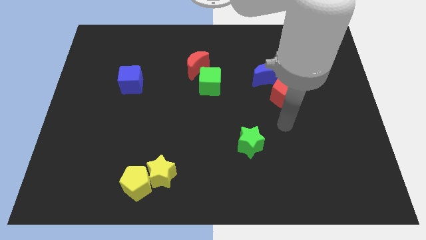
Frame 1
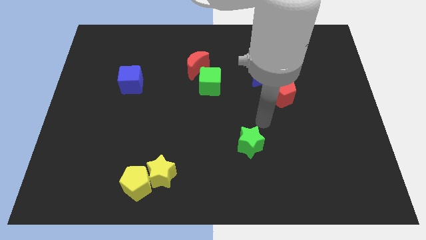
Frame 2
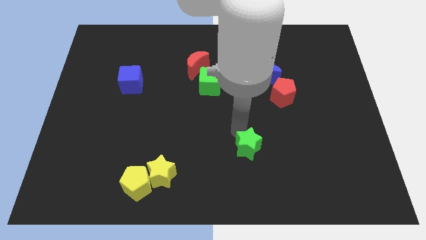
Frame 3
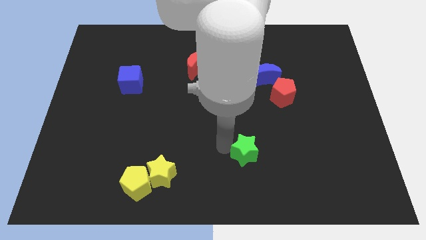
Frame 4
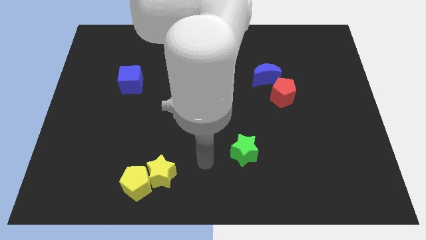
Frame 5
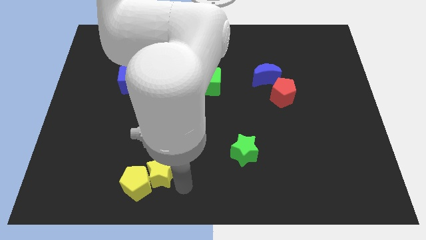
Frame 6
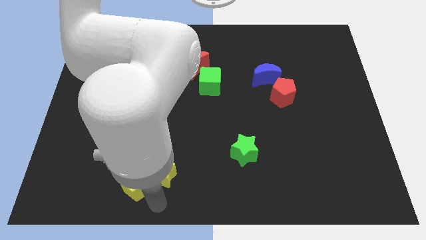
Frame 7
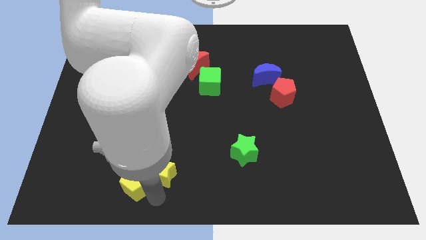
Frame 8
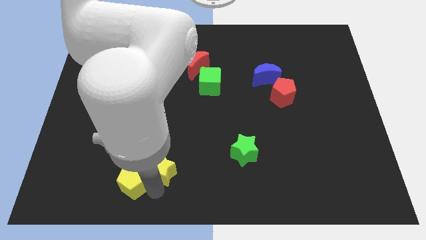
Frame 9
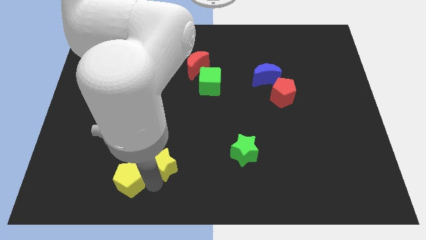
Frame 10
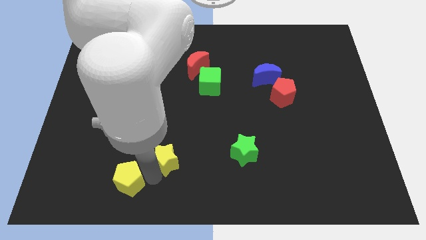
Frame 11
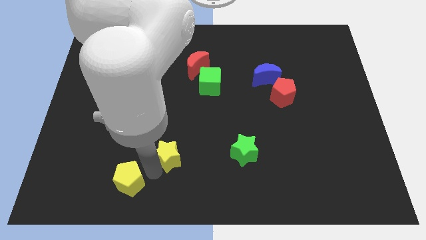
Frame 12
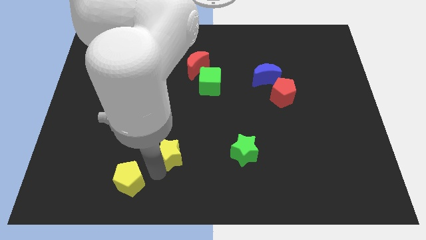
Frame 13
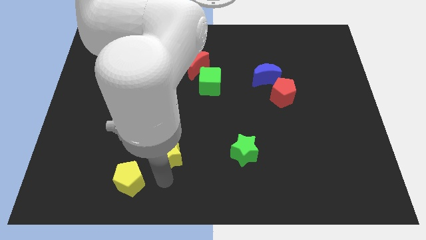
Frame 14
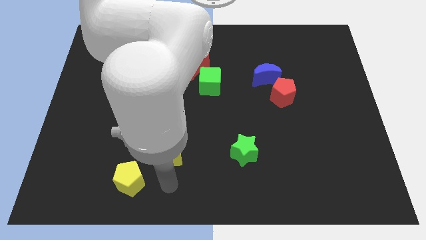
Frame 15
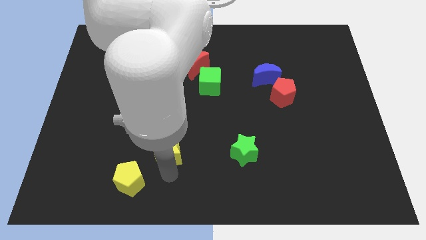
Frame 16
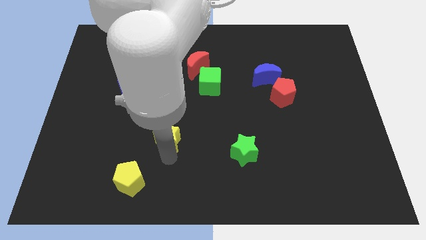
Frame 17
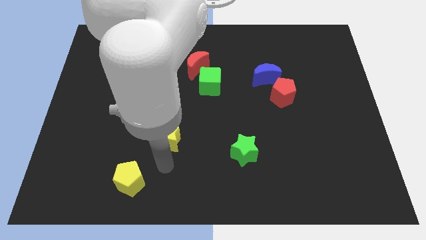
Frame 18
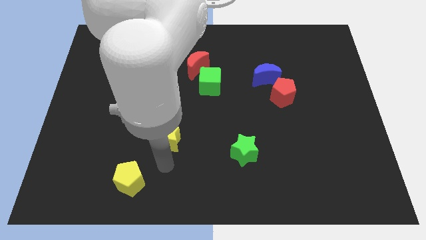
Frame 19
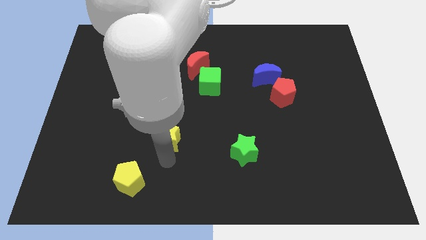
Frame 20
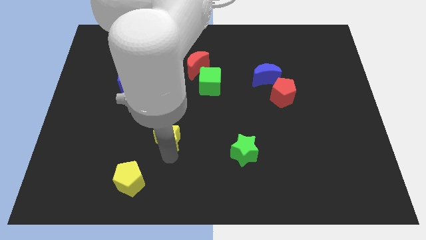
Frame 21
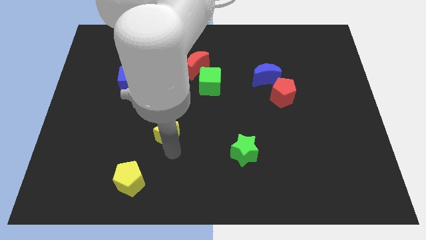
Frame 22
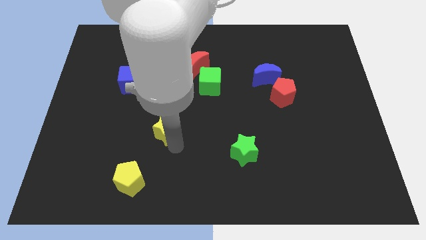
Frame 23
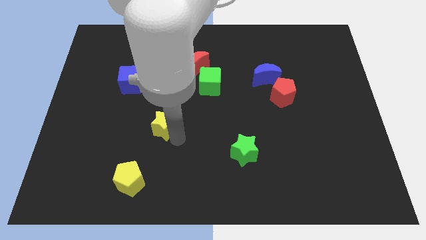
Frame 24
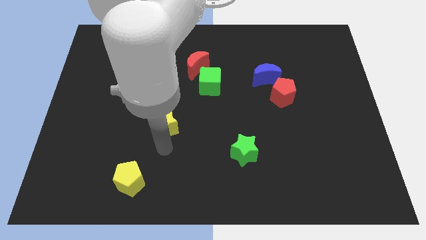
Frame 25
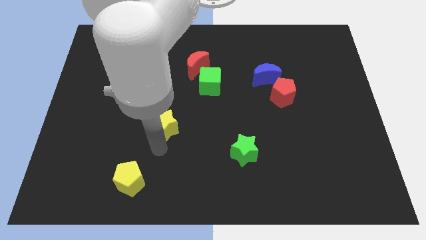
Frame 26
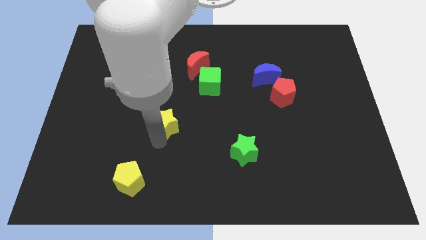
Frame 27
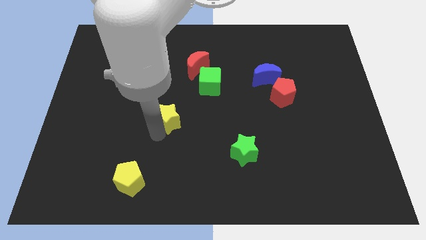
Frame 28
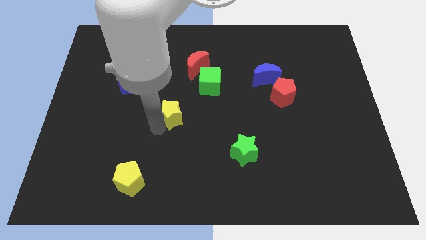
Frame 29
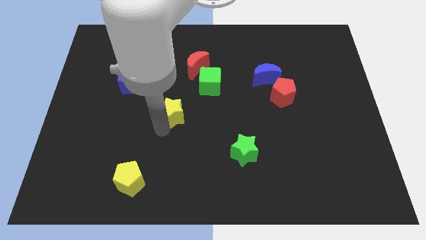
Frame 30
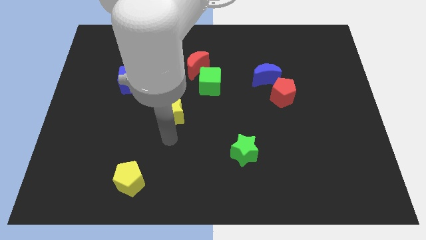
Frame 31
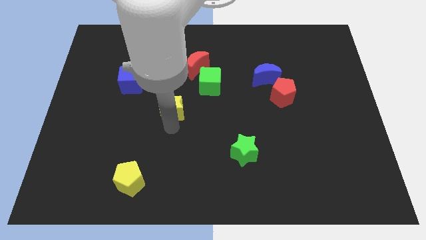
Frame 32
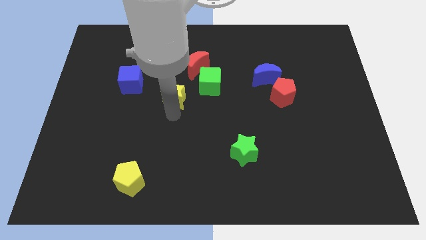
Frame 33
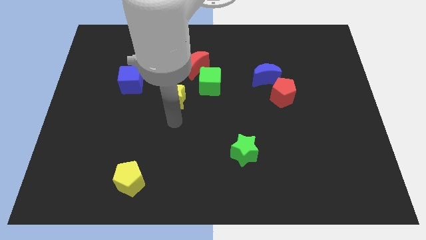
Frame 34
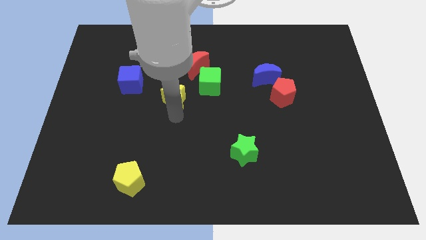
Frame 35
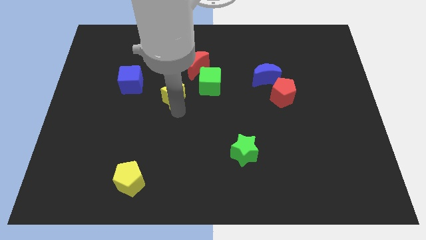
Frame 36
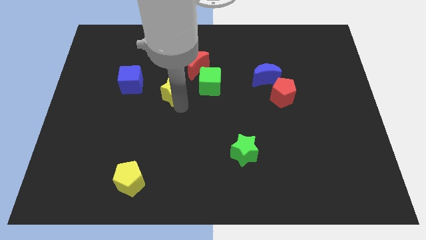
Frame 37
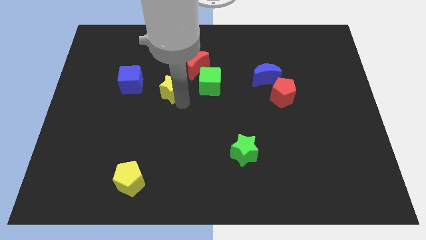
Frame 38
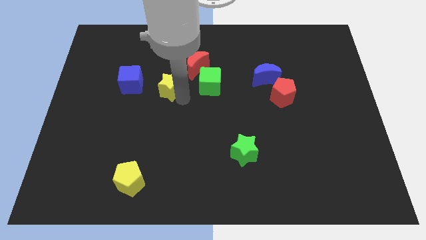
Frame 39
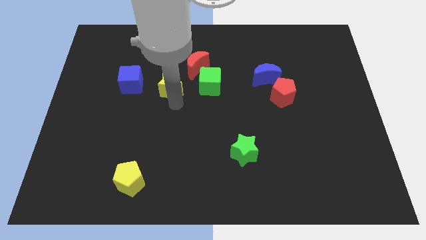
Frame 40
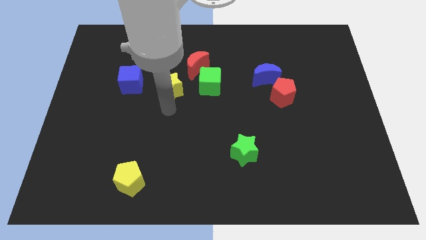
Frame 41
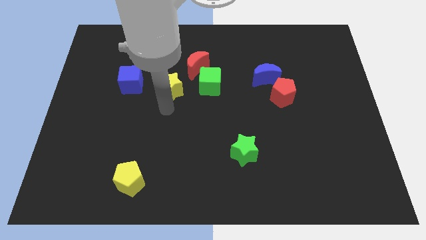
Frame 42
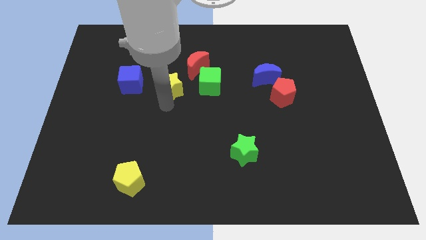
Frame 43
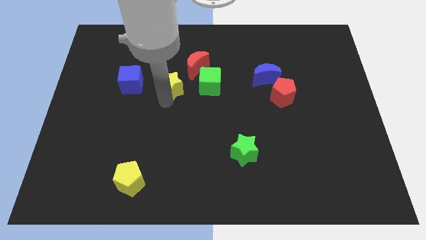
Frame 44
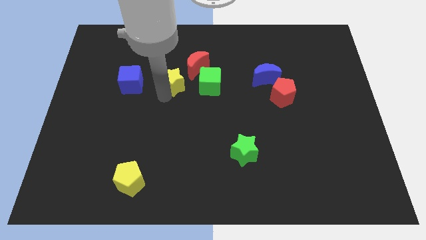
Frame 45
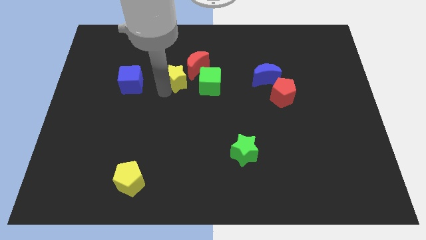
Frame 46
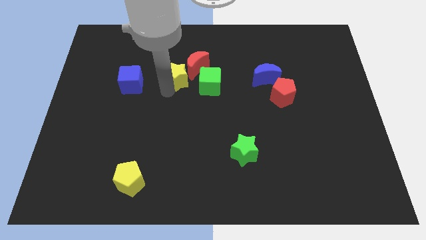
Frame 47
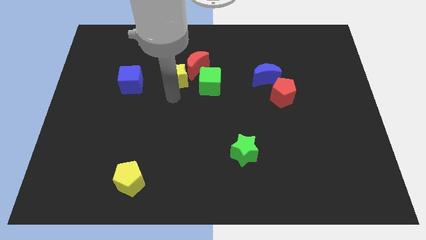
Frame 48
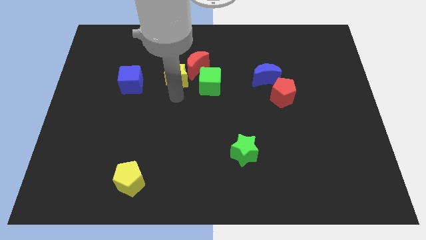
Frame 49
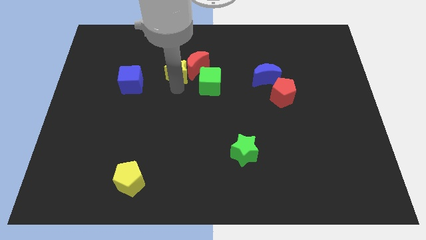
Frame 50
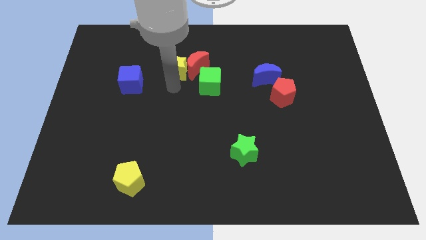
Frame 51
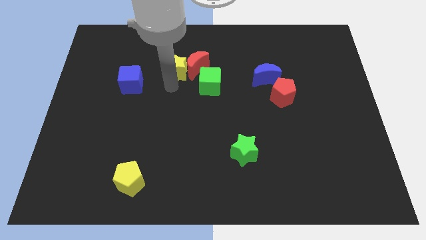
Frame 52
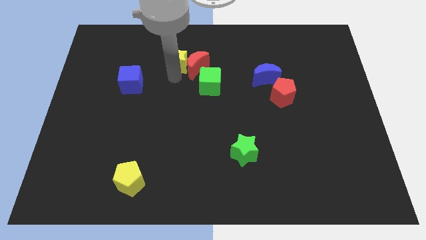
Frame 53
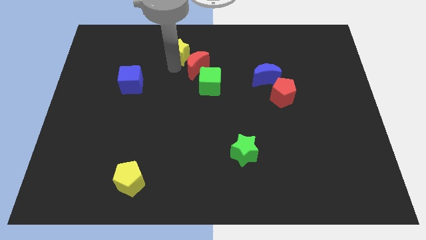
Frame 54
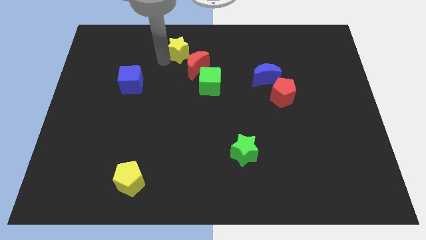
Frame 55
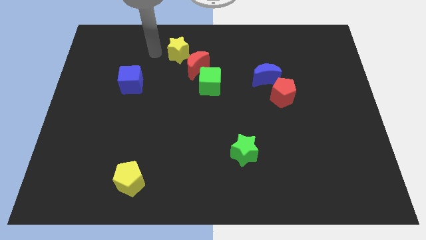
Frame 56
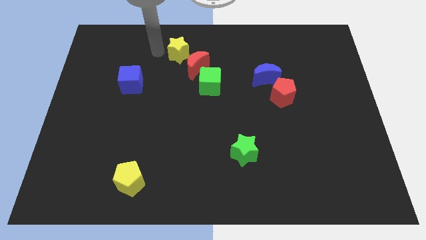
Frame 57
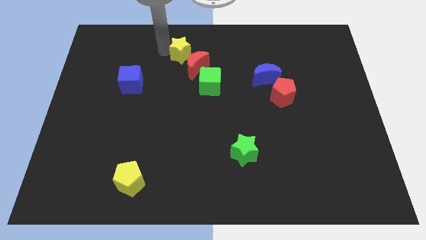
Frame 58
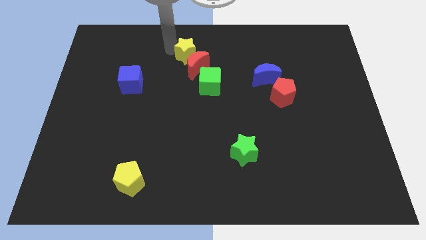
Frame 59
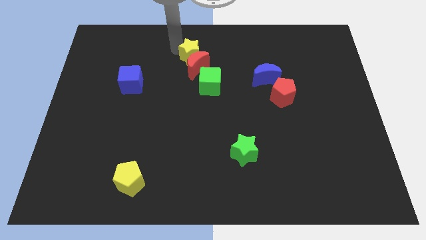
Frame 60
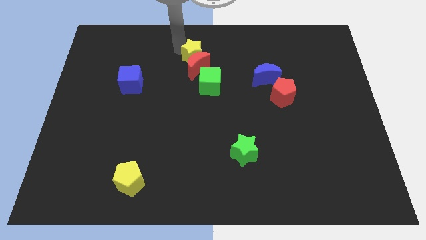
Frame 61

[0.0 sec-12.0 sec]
put the yellow star above the green cube

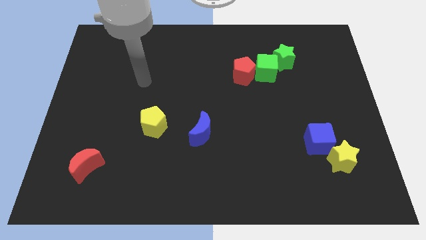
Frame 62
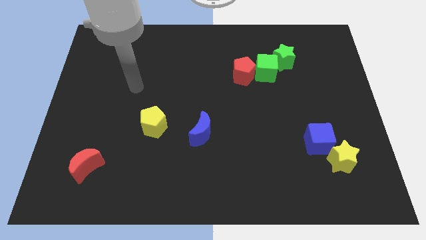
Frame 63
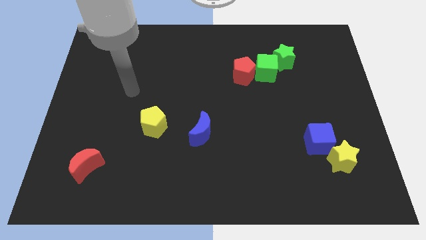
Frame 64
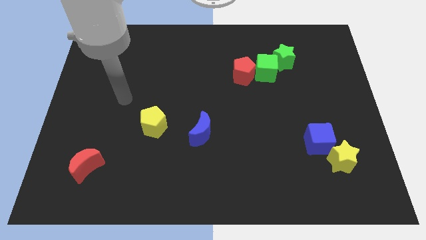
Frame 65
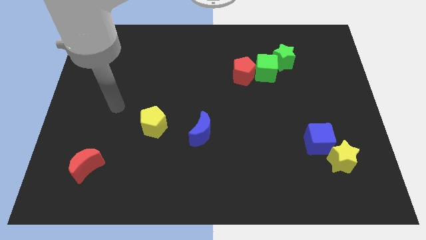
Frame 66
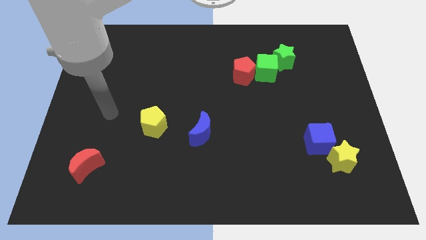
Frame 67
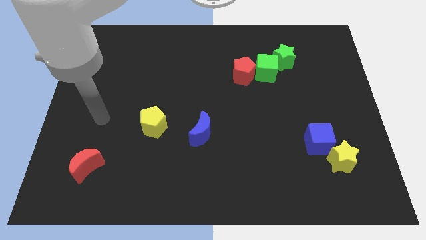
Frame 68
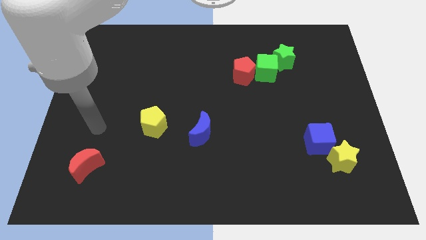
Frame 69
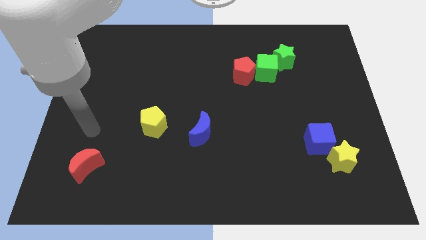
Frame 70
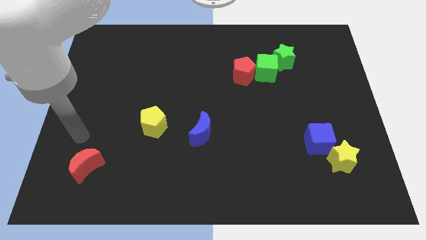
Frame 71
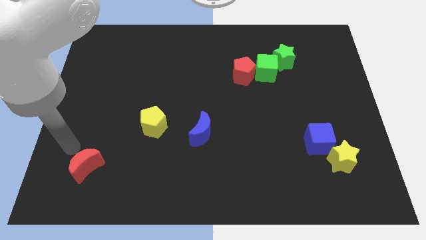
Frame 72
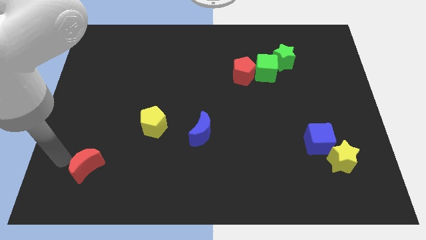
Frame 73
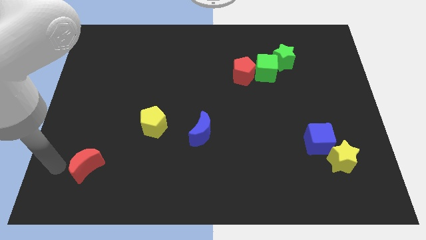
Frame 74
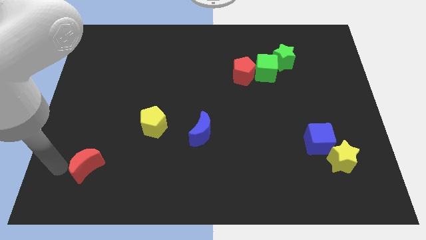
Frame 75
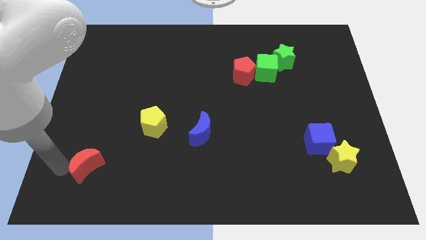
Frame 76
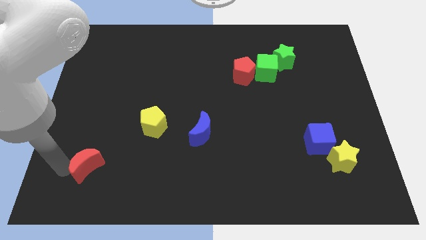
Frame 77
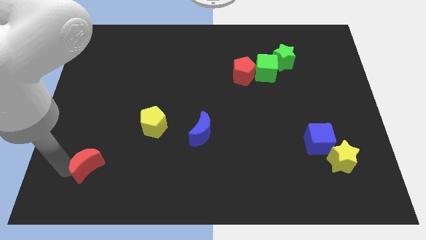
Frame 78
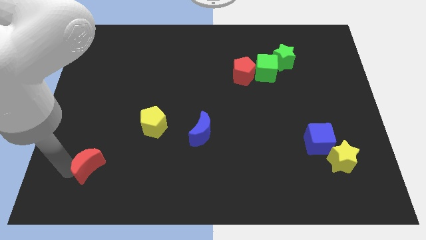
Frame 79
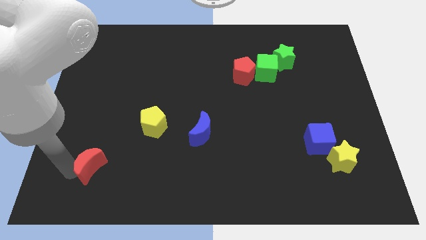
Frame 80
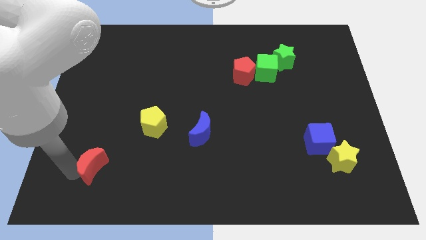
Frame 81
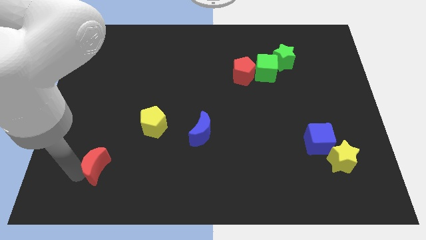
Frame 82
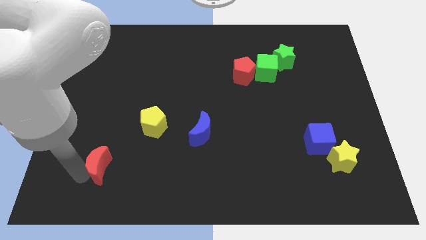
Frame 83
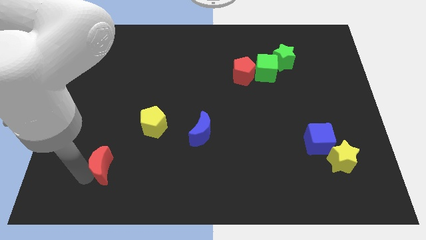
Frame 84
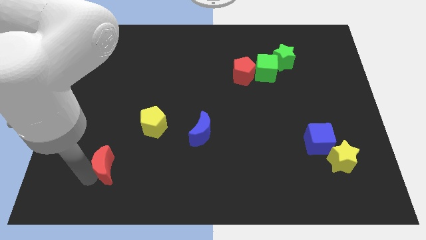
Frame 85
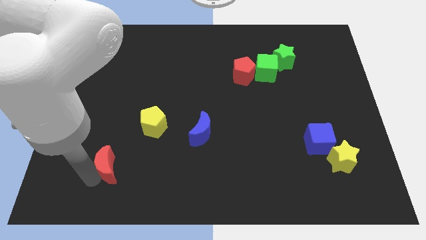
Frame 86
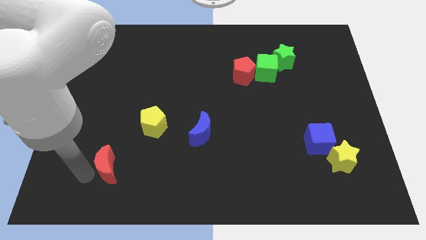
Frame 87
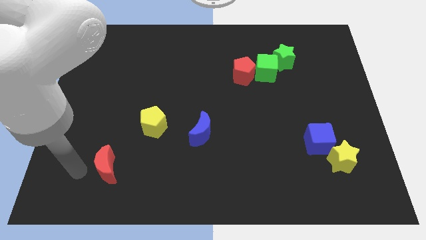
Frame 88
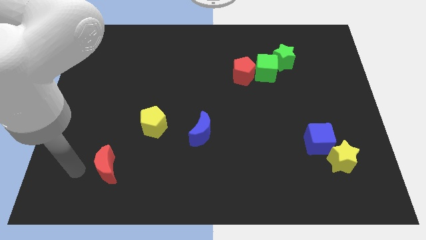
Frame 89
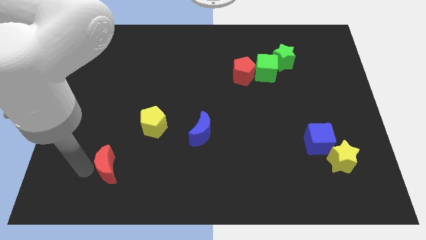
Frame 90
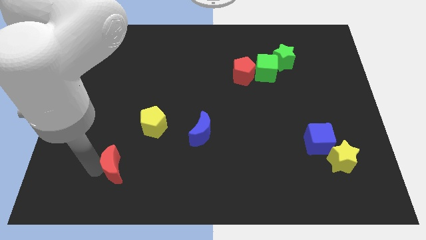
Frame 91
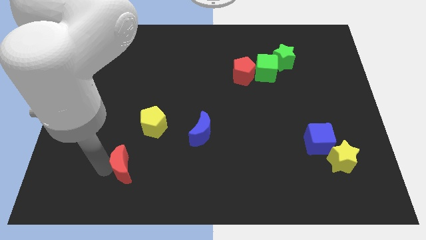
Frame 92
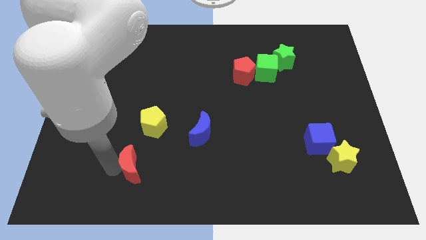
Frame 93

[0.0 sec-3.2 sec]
put the red moon to the bottom side of the yellow pentagon
